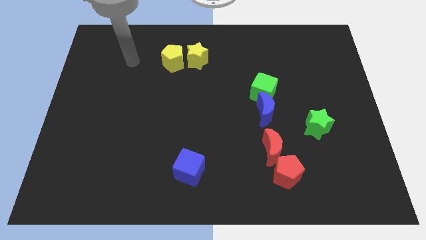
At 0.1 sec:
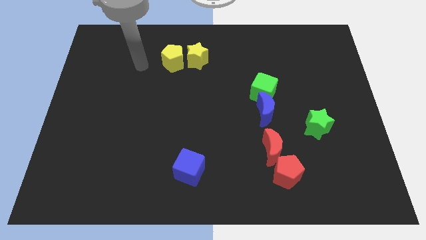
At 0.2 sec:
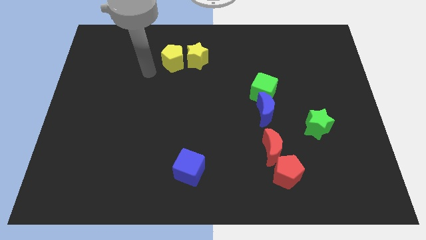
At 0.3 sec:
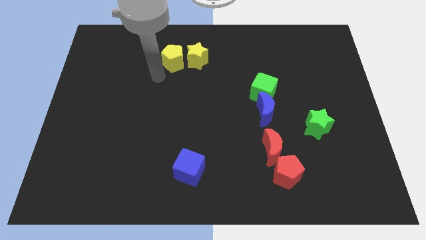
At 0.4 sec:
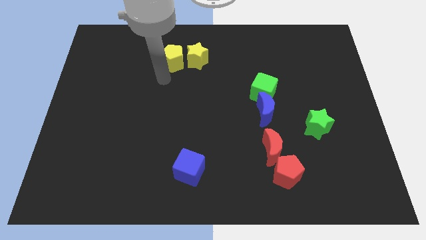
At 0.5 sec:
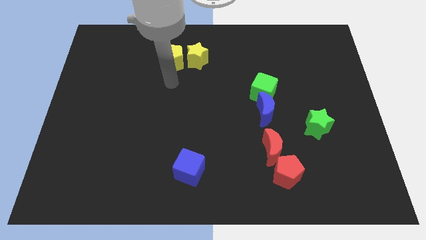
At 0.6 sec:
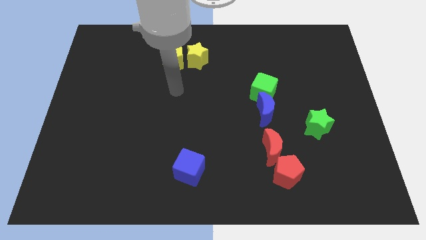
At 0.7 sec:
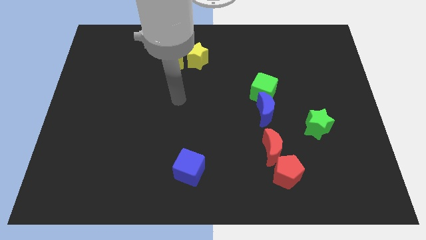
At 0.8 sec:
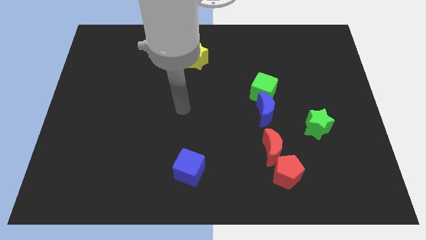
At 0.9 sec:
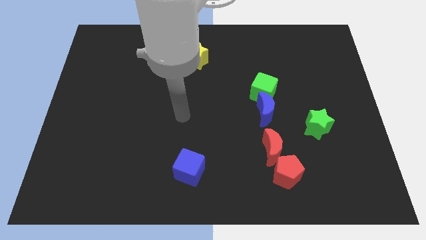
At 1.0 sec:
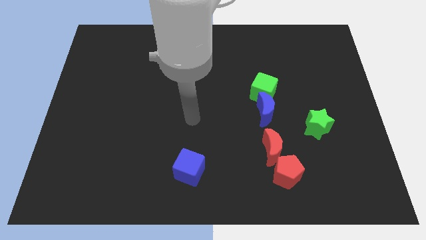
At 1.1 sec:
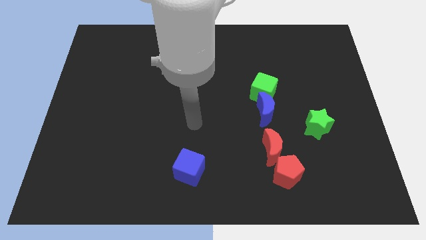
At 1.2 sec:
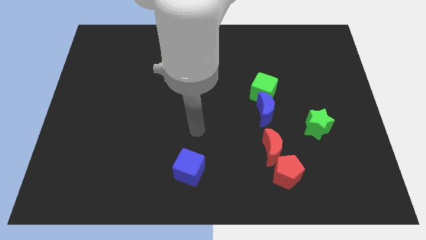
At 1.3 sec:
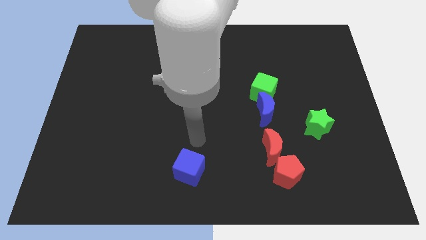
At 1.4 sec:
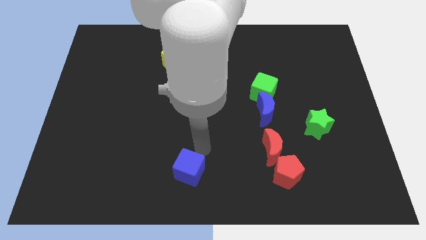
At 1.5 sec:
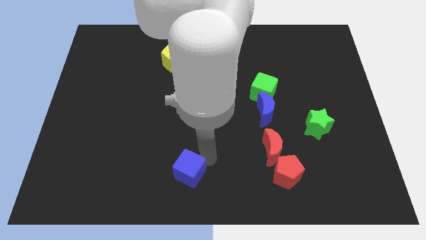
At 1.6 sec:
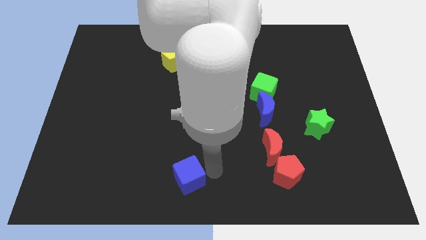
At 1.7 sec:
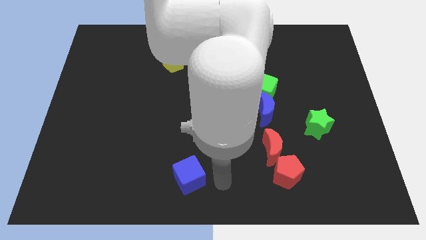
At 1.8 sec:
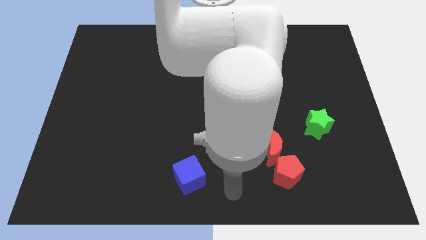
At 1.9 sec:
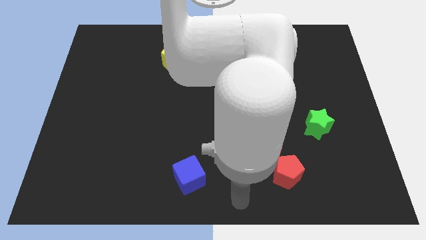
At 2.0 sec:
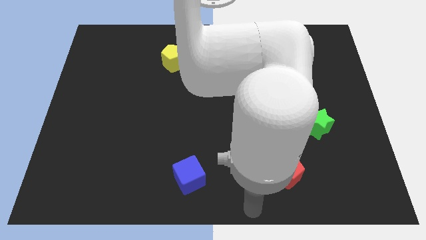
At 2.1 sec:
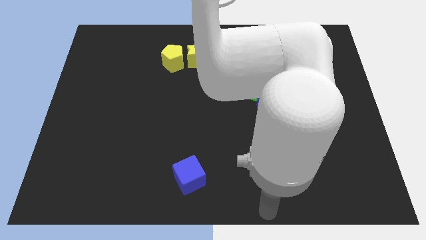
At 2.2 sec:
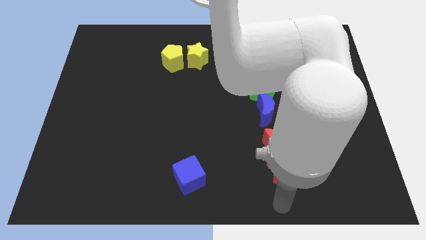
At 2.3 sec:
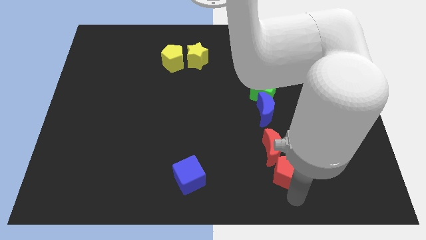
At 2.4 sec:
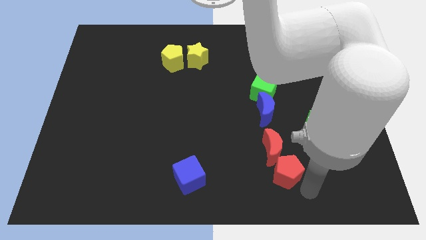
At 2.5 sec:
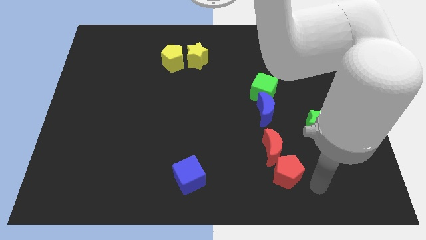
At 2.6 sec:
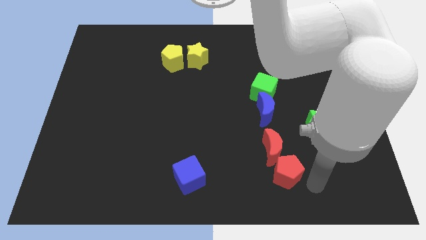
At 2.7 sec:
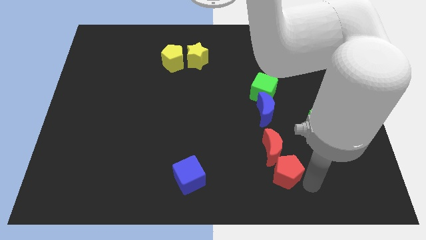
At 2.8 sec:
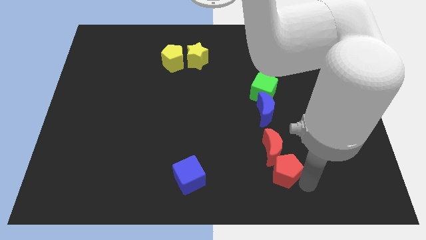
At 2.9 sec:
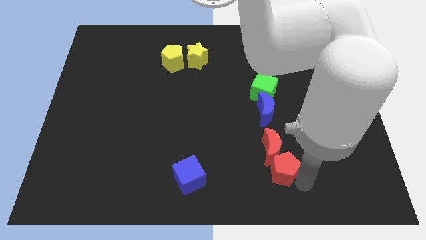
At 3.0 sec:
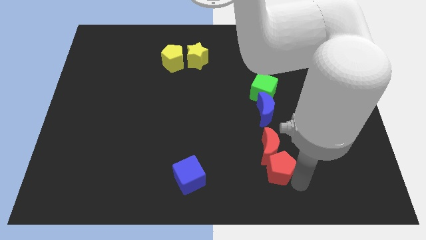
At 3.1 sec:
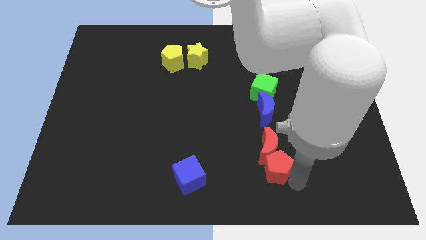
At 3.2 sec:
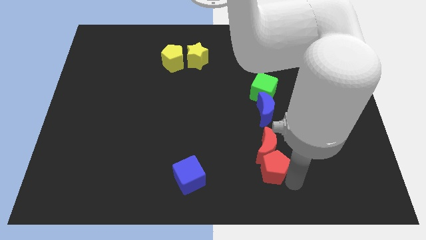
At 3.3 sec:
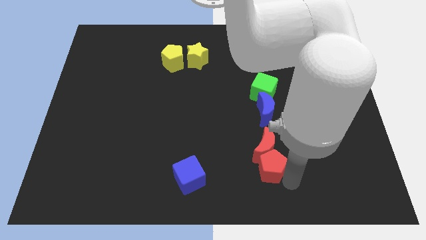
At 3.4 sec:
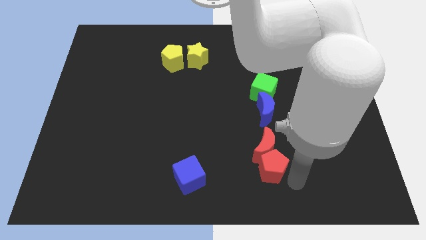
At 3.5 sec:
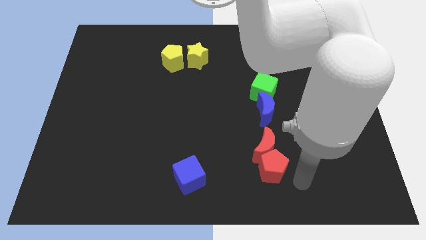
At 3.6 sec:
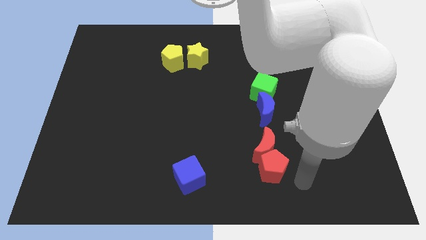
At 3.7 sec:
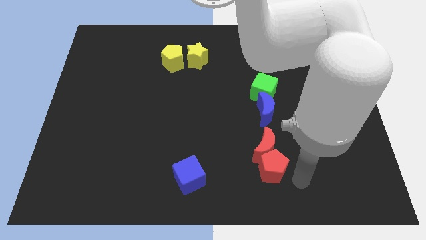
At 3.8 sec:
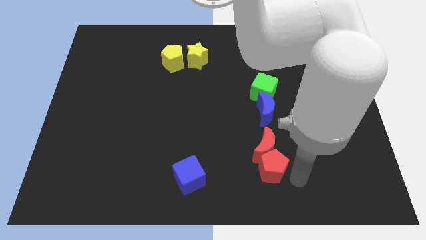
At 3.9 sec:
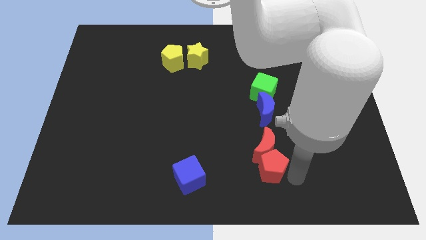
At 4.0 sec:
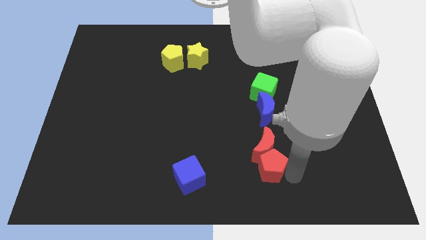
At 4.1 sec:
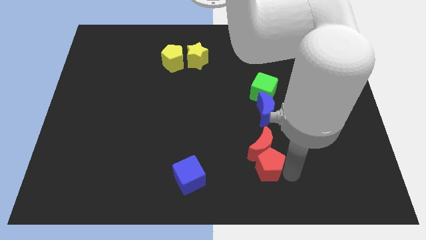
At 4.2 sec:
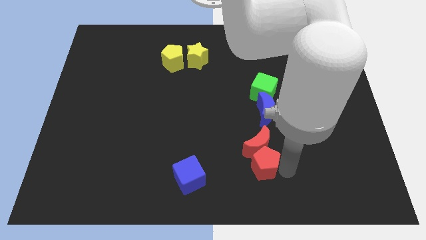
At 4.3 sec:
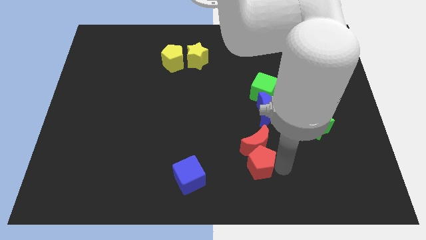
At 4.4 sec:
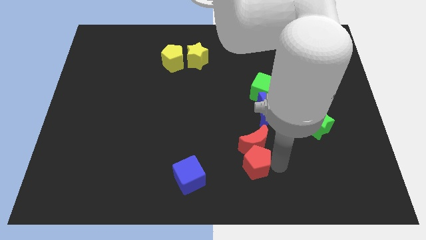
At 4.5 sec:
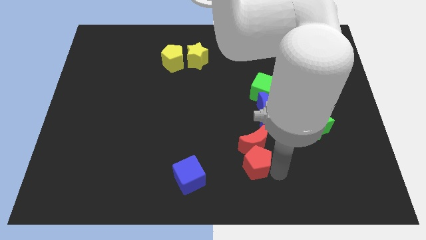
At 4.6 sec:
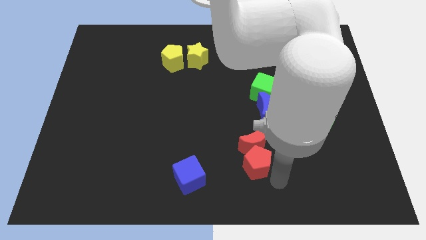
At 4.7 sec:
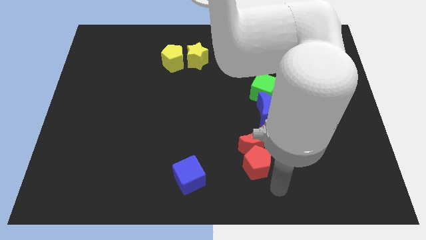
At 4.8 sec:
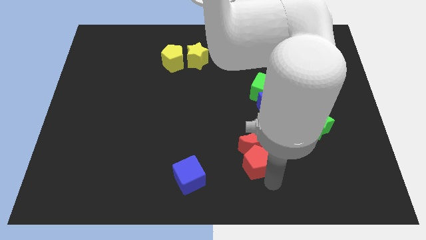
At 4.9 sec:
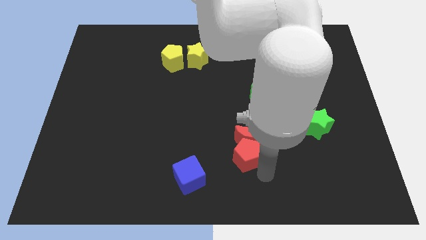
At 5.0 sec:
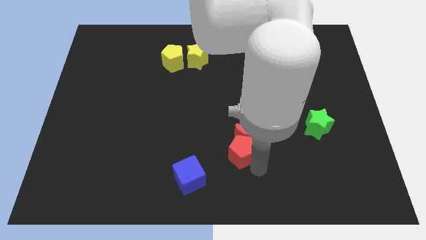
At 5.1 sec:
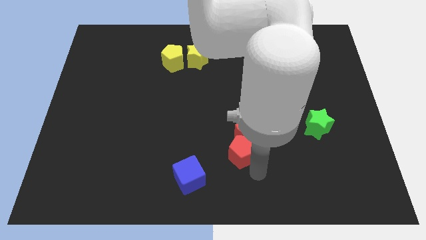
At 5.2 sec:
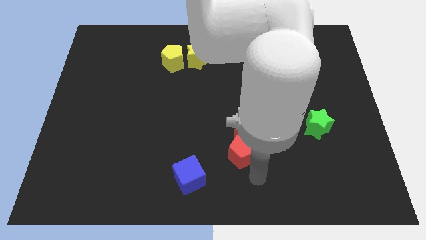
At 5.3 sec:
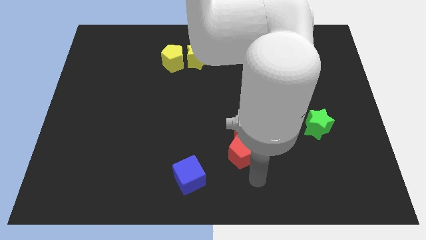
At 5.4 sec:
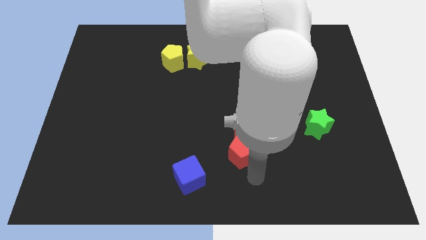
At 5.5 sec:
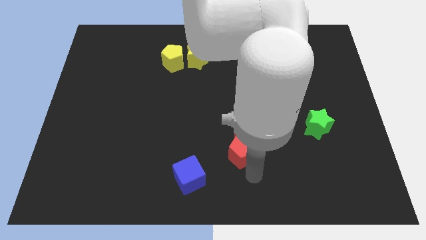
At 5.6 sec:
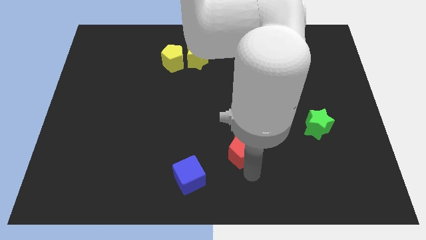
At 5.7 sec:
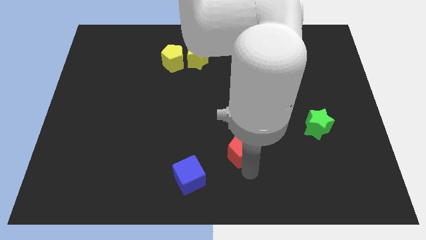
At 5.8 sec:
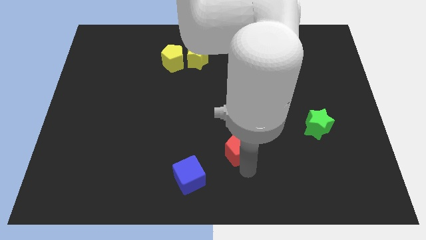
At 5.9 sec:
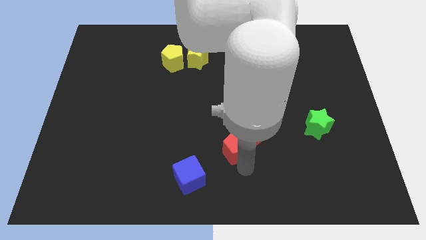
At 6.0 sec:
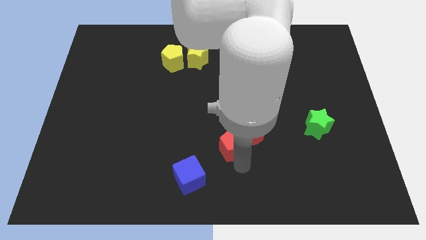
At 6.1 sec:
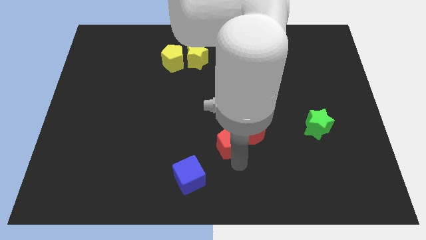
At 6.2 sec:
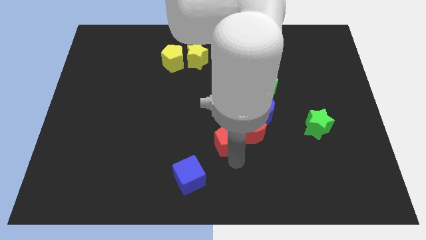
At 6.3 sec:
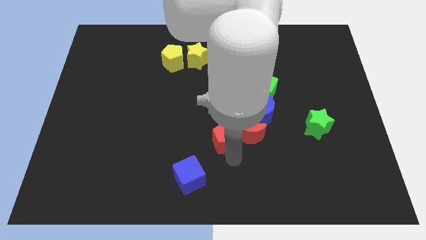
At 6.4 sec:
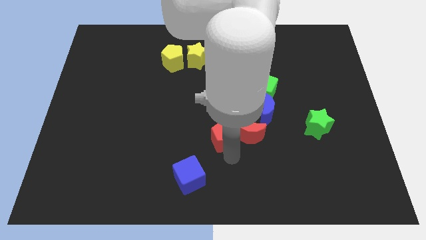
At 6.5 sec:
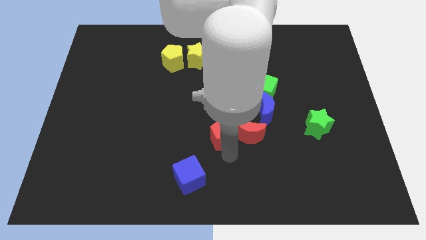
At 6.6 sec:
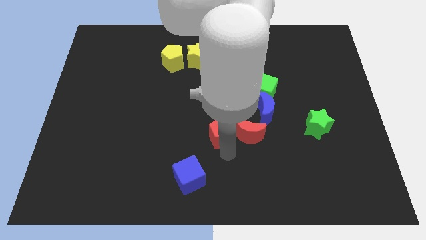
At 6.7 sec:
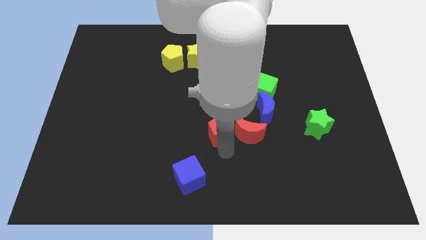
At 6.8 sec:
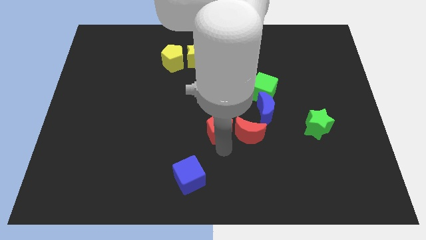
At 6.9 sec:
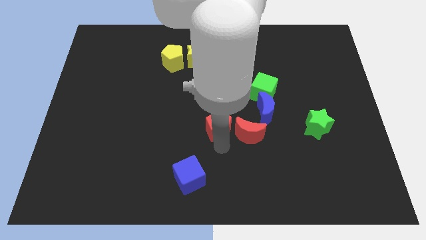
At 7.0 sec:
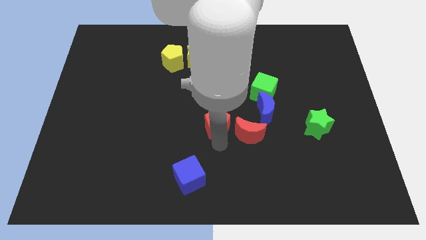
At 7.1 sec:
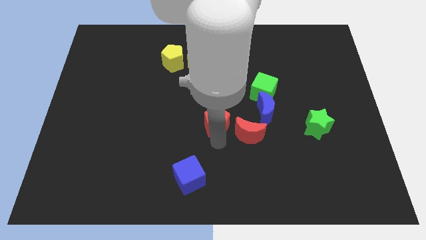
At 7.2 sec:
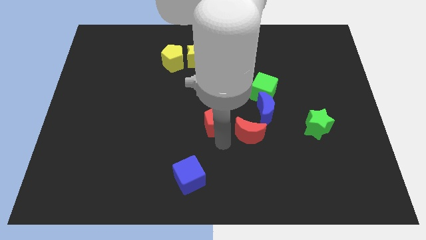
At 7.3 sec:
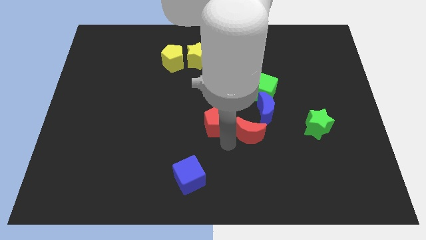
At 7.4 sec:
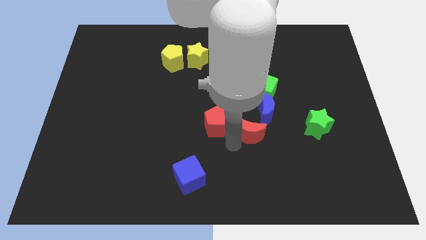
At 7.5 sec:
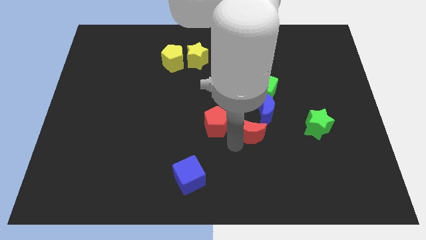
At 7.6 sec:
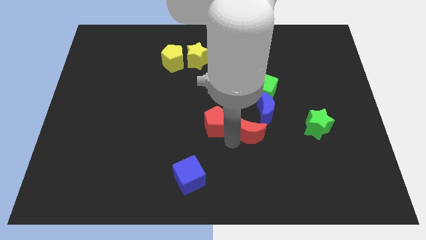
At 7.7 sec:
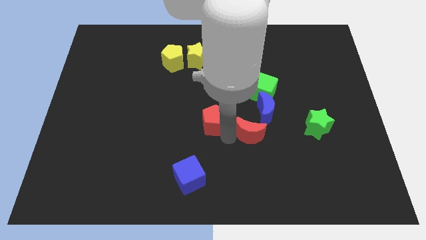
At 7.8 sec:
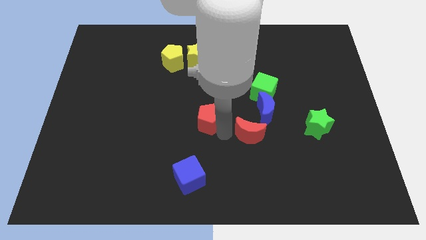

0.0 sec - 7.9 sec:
move the red pentagon diagonally upwards and left
